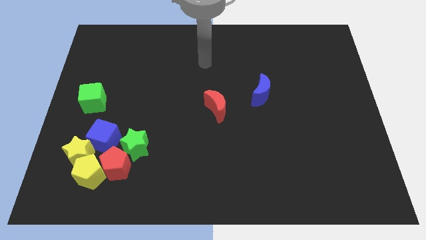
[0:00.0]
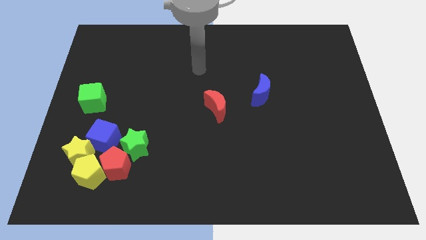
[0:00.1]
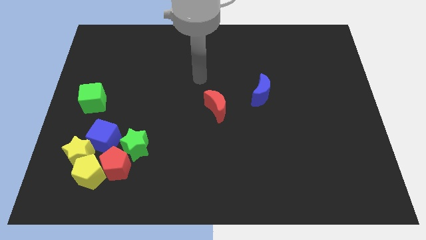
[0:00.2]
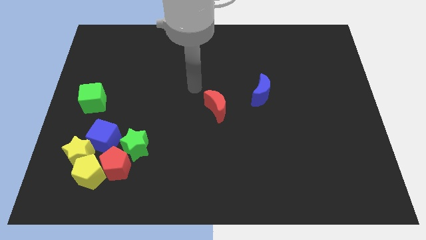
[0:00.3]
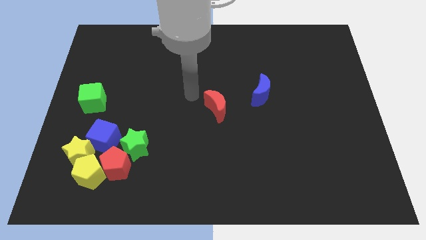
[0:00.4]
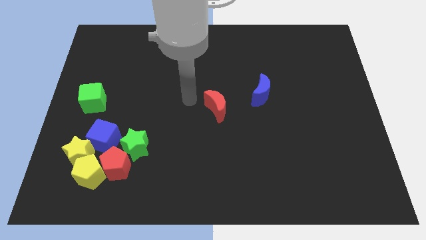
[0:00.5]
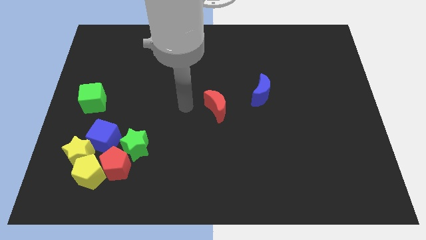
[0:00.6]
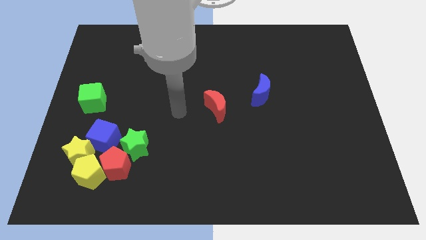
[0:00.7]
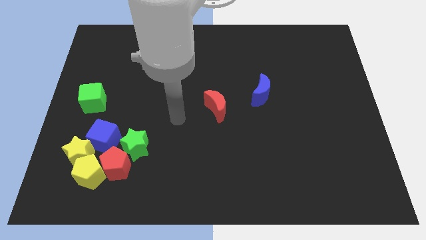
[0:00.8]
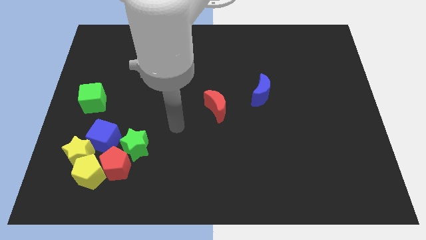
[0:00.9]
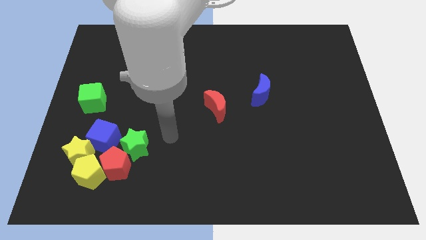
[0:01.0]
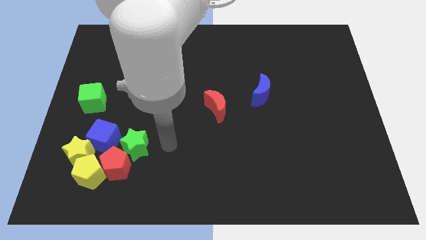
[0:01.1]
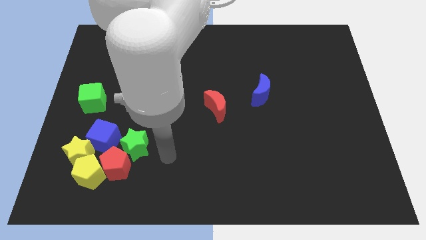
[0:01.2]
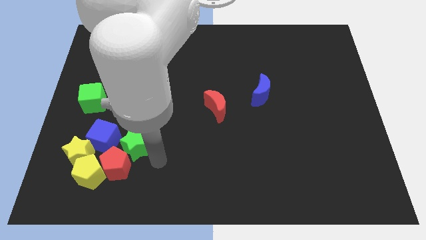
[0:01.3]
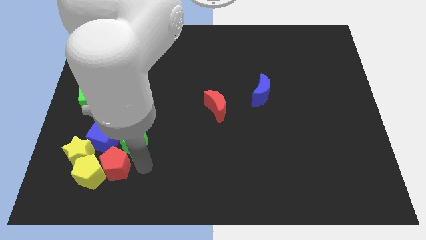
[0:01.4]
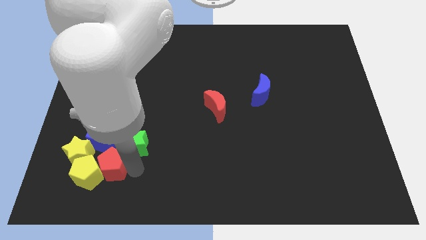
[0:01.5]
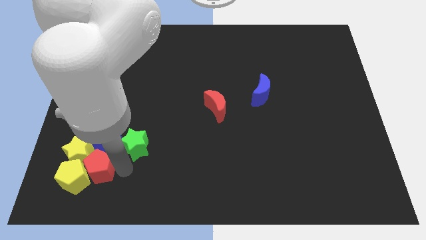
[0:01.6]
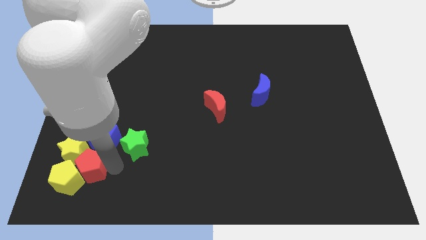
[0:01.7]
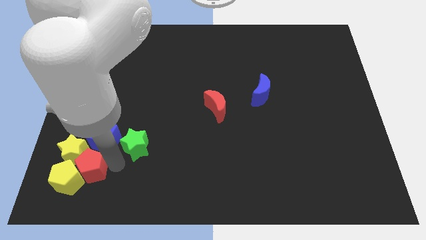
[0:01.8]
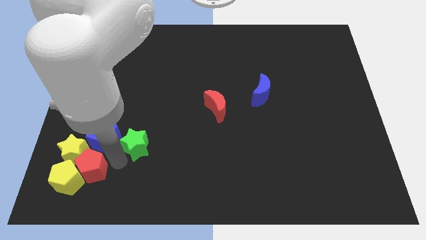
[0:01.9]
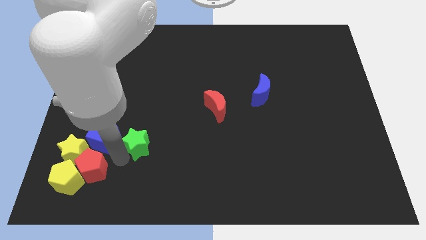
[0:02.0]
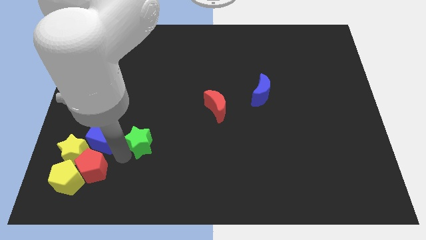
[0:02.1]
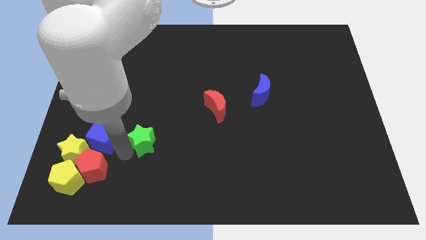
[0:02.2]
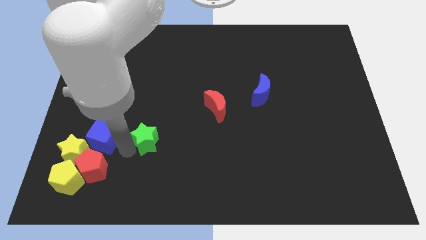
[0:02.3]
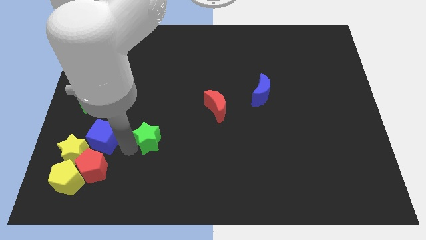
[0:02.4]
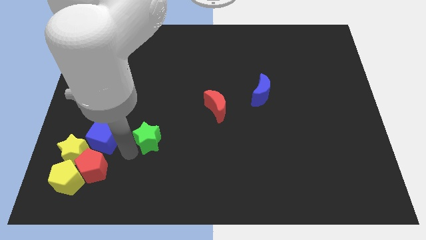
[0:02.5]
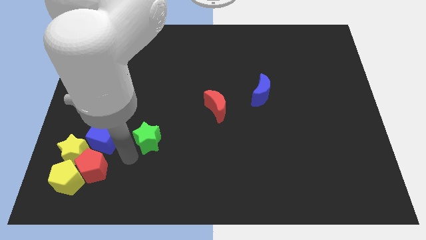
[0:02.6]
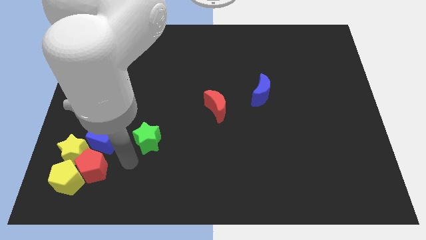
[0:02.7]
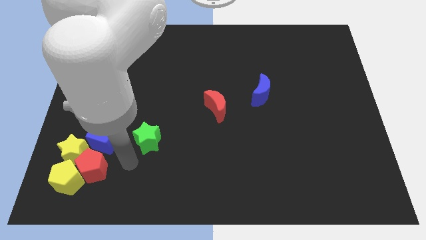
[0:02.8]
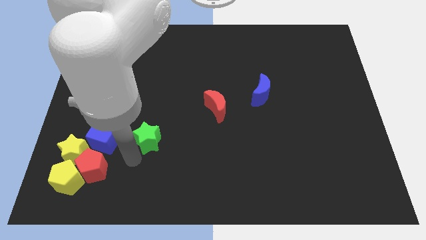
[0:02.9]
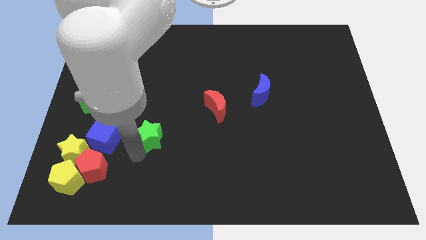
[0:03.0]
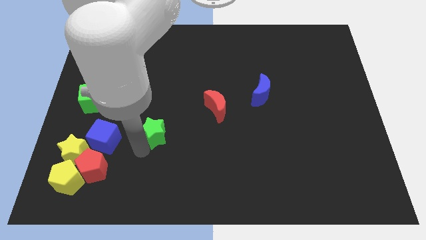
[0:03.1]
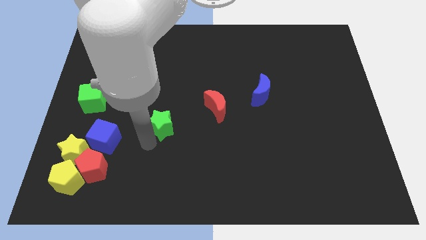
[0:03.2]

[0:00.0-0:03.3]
slightly move the green star up and then to the right

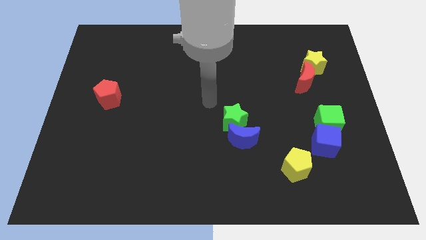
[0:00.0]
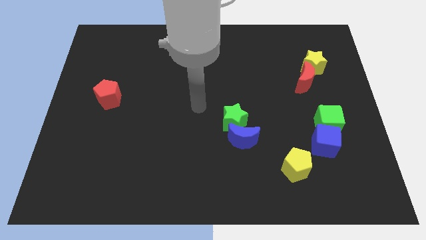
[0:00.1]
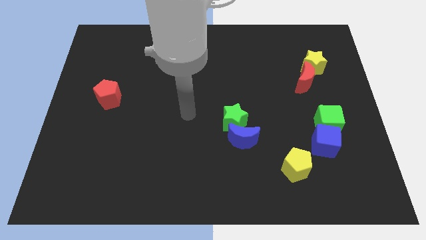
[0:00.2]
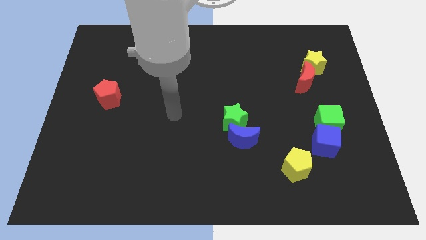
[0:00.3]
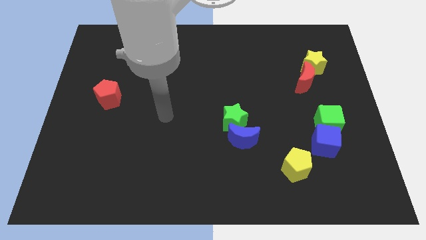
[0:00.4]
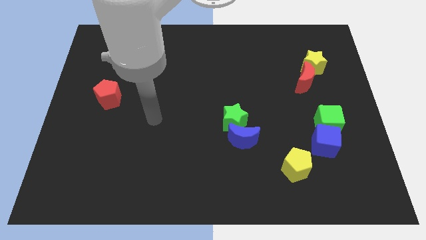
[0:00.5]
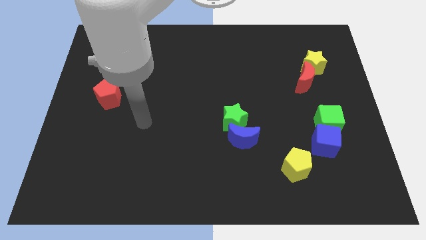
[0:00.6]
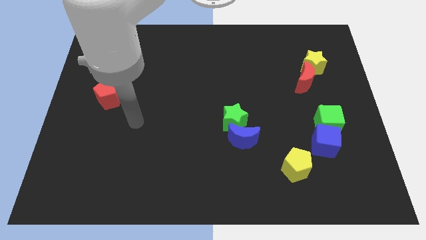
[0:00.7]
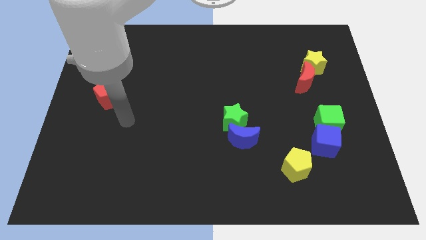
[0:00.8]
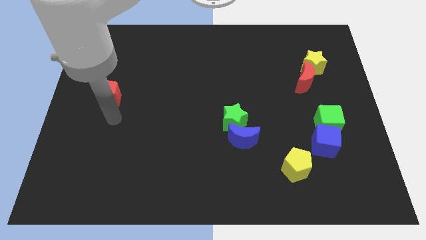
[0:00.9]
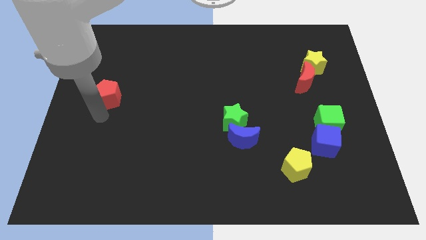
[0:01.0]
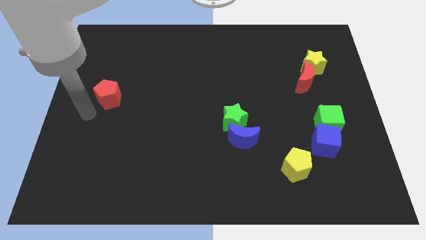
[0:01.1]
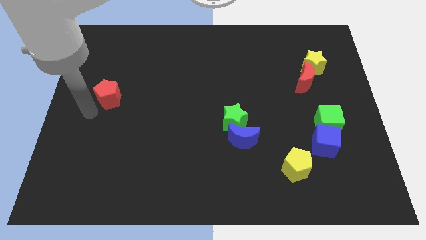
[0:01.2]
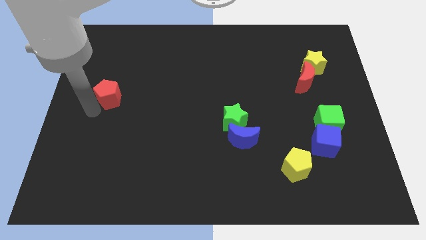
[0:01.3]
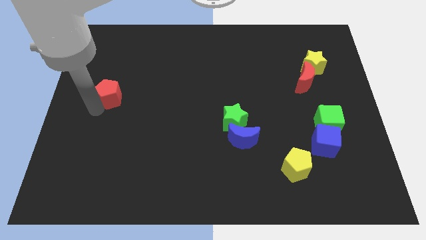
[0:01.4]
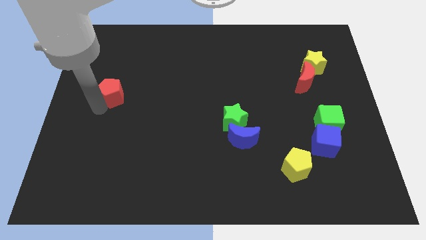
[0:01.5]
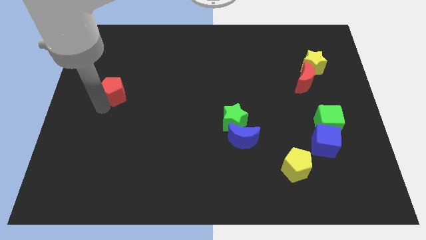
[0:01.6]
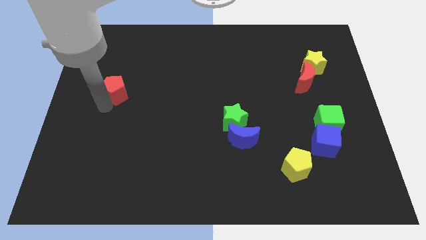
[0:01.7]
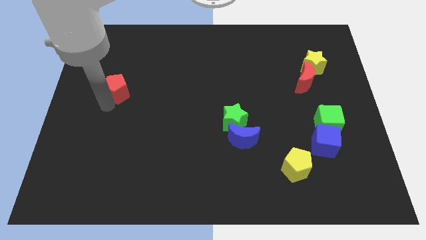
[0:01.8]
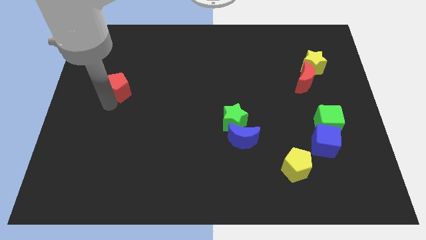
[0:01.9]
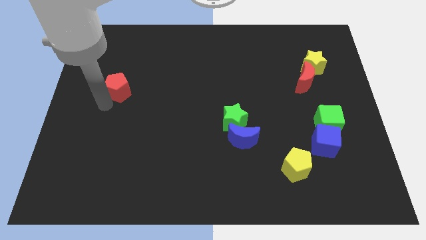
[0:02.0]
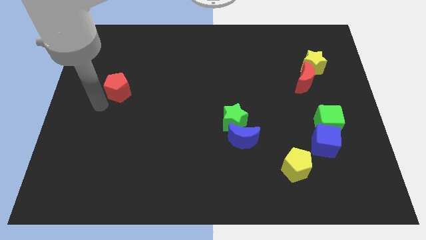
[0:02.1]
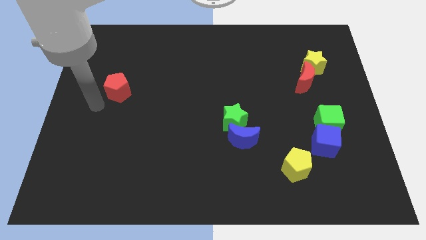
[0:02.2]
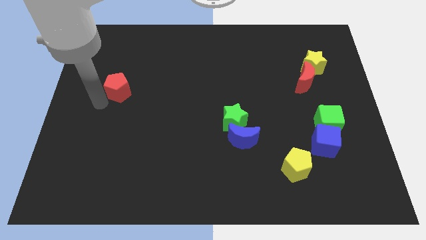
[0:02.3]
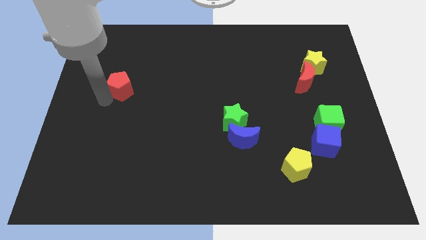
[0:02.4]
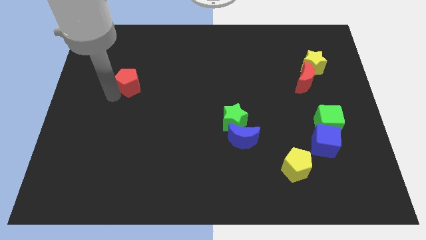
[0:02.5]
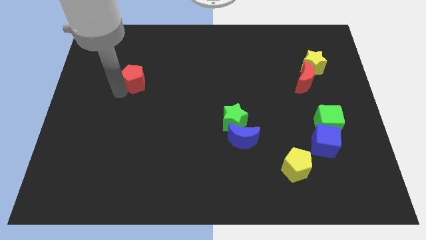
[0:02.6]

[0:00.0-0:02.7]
push the red pentagon upwards and to the right diagonally a little bit

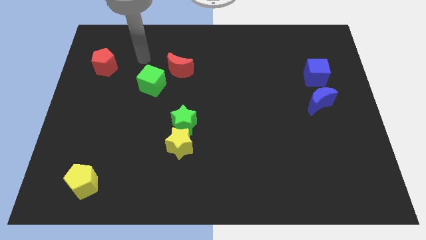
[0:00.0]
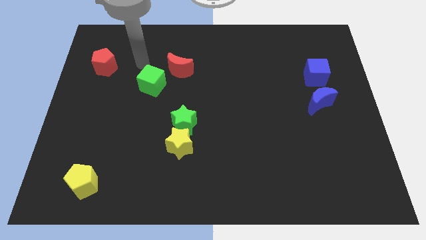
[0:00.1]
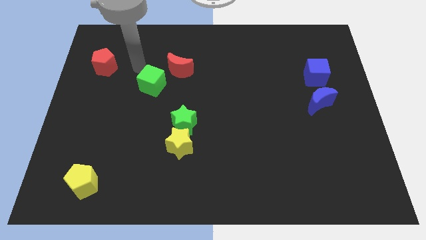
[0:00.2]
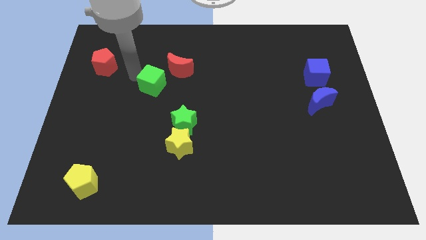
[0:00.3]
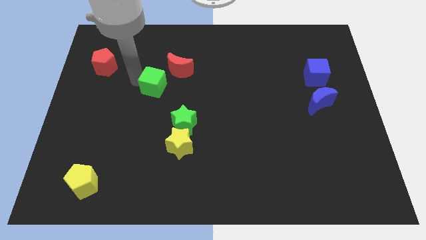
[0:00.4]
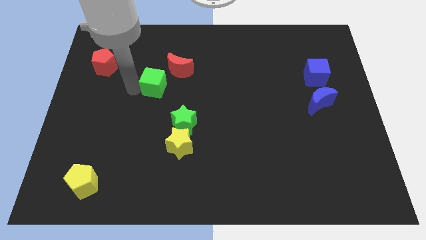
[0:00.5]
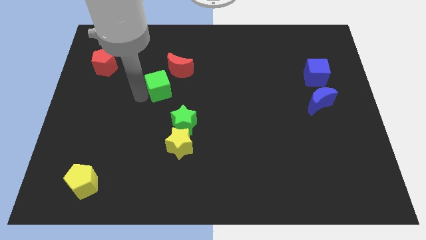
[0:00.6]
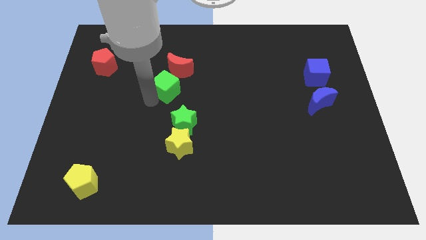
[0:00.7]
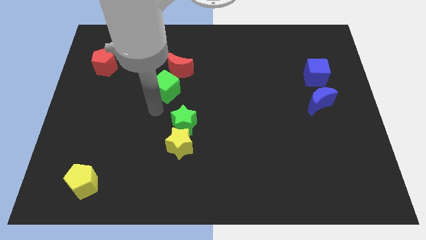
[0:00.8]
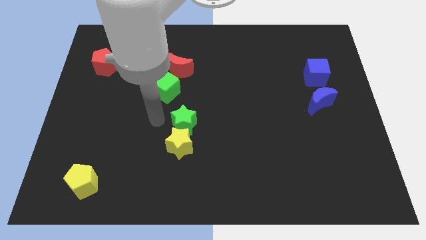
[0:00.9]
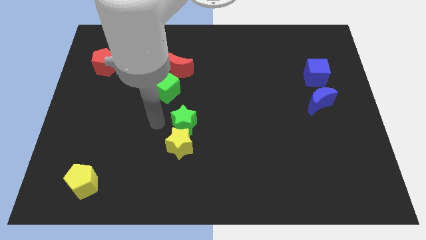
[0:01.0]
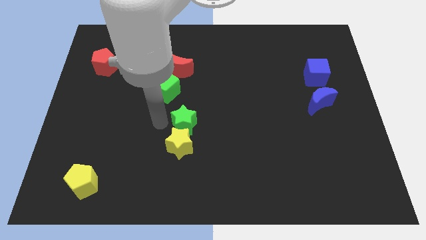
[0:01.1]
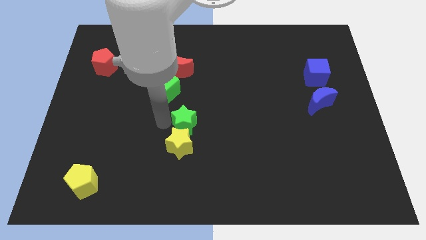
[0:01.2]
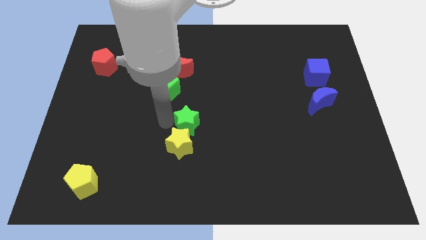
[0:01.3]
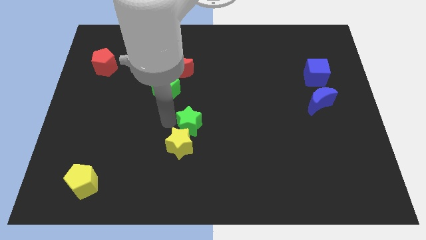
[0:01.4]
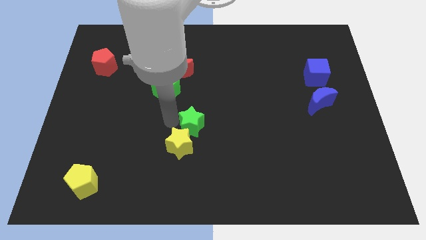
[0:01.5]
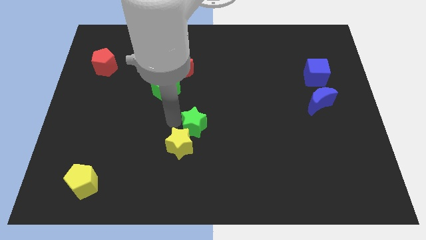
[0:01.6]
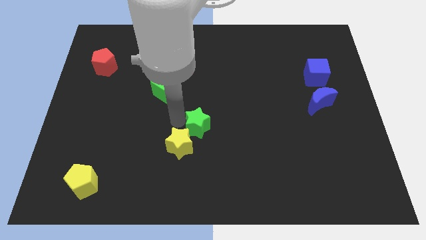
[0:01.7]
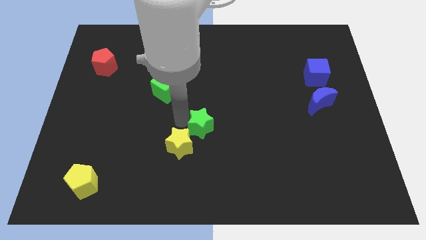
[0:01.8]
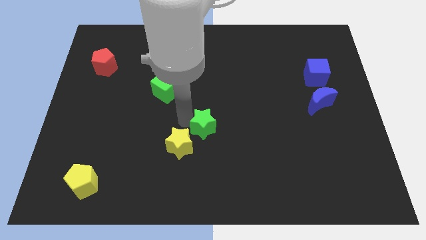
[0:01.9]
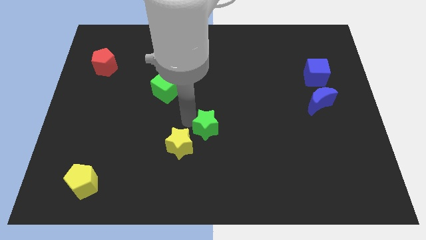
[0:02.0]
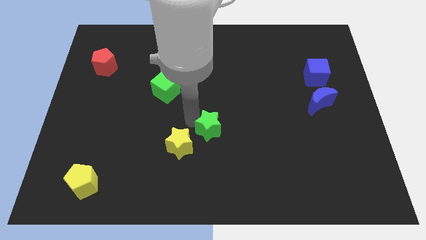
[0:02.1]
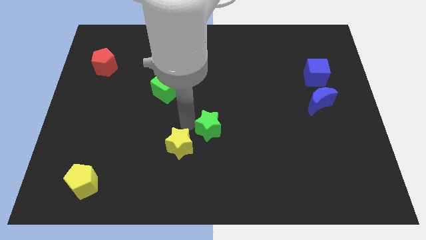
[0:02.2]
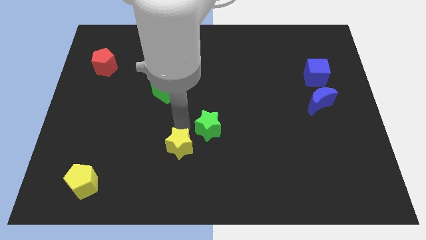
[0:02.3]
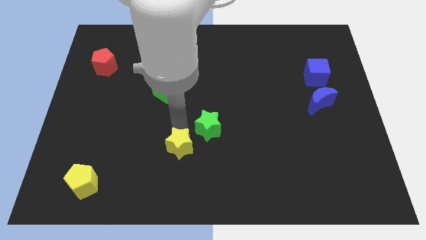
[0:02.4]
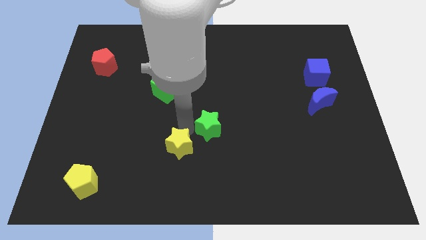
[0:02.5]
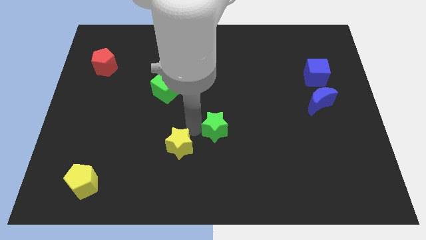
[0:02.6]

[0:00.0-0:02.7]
slide the green star a bit right
